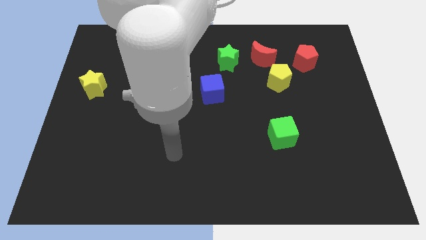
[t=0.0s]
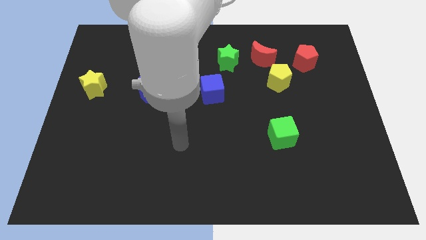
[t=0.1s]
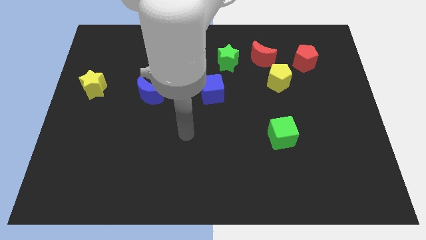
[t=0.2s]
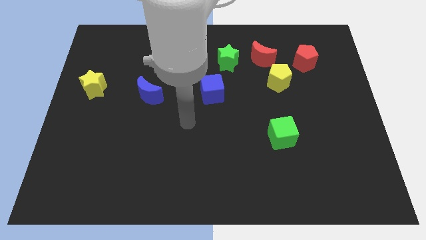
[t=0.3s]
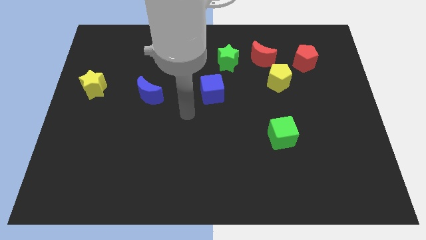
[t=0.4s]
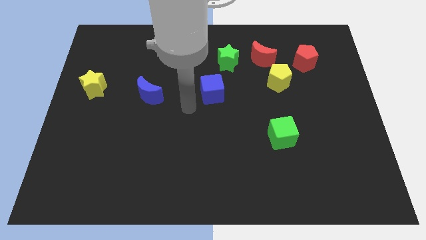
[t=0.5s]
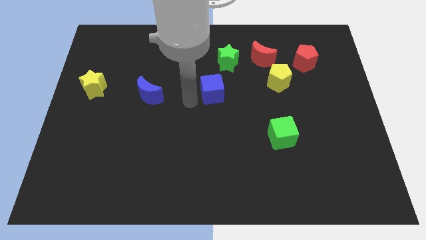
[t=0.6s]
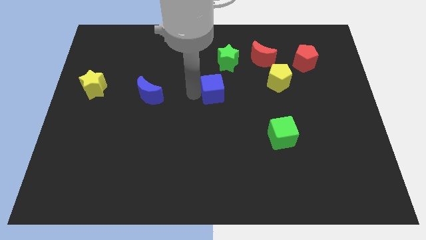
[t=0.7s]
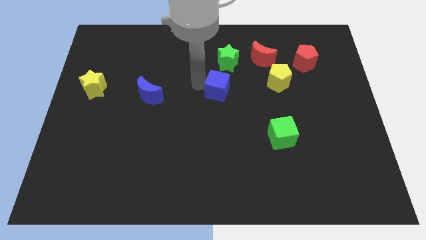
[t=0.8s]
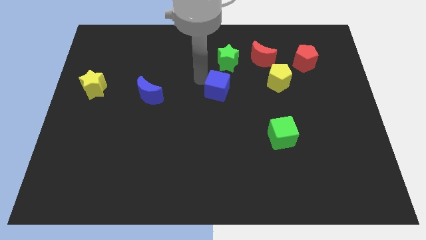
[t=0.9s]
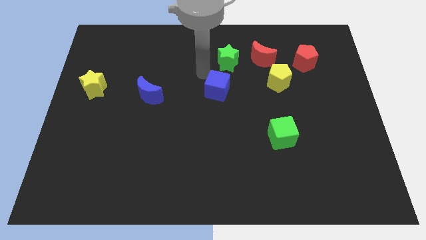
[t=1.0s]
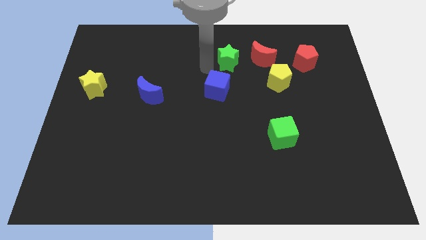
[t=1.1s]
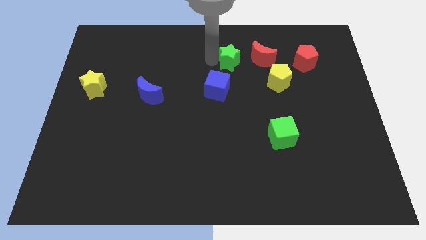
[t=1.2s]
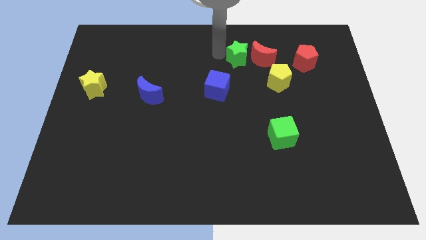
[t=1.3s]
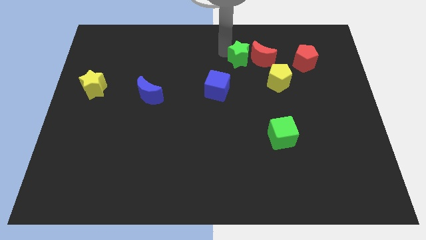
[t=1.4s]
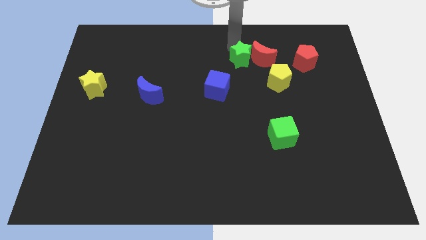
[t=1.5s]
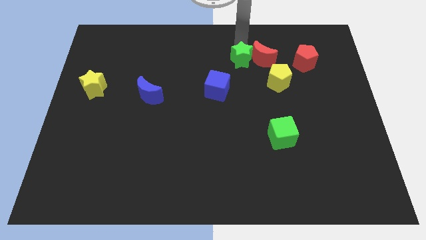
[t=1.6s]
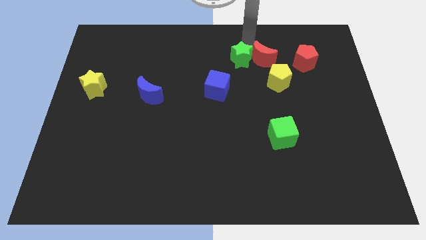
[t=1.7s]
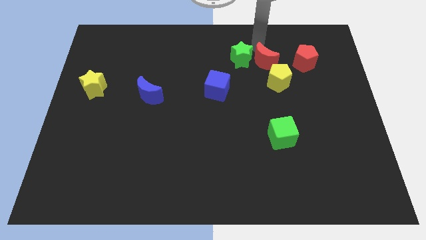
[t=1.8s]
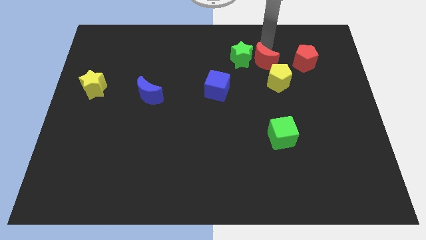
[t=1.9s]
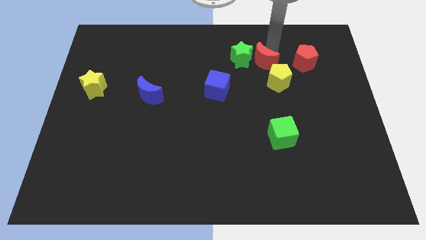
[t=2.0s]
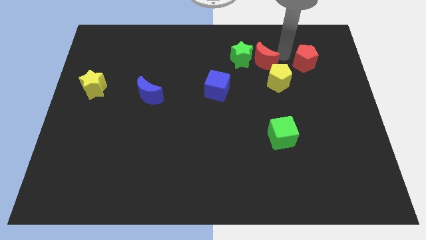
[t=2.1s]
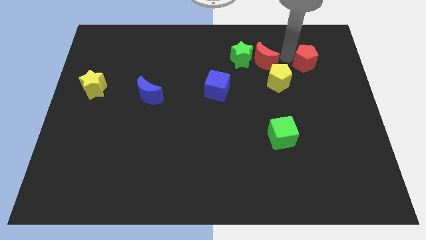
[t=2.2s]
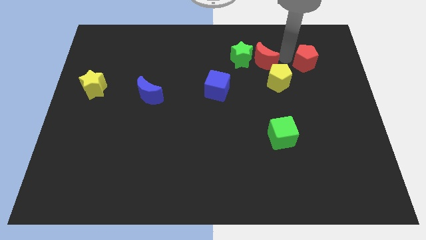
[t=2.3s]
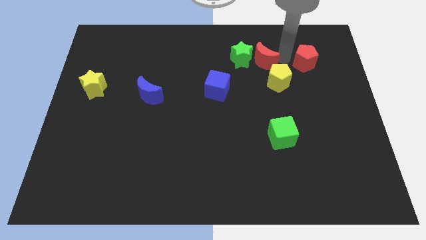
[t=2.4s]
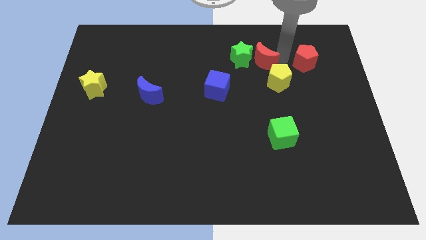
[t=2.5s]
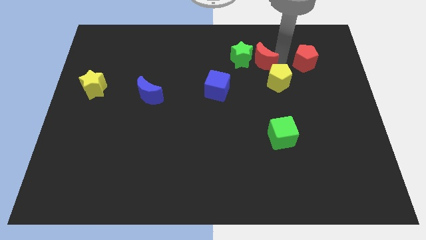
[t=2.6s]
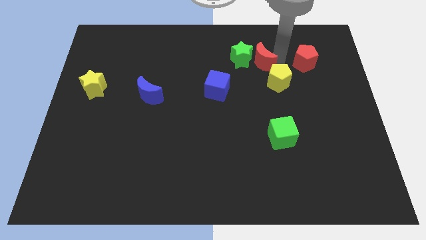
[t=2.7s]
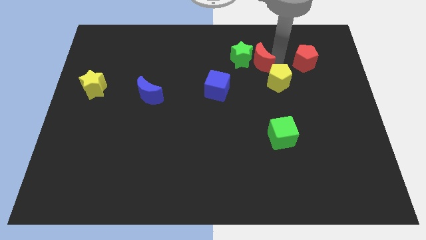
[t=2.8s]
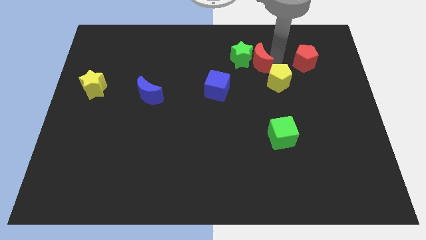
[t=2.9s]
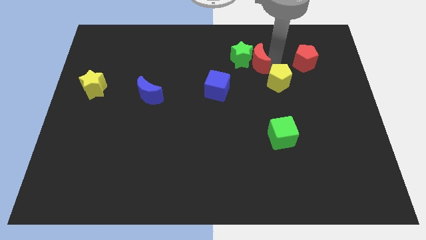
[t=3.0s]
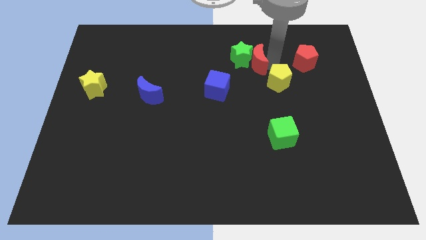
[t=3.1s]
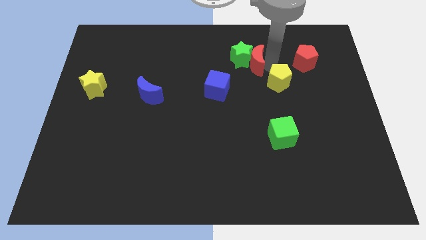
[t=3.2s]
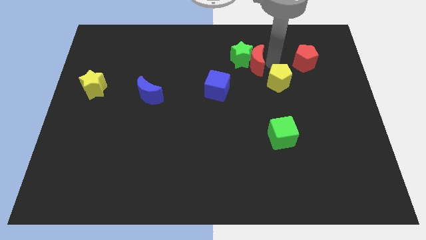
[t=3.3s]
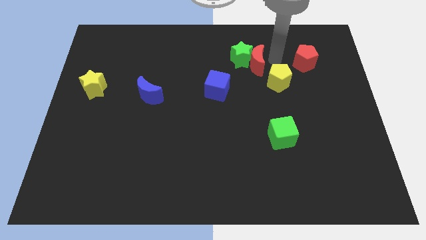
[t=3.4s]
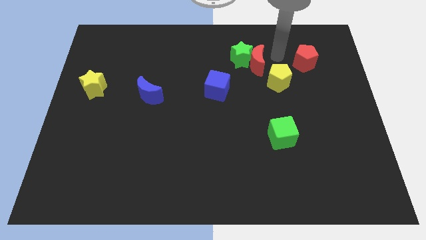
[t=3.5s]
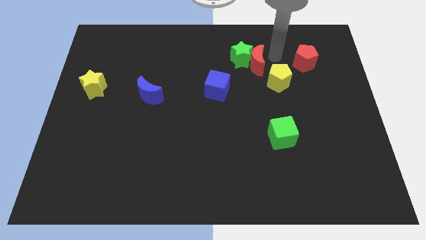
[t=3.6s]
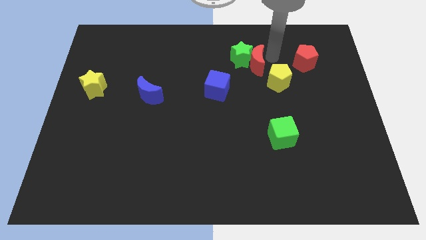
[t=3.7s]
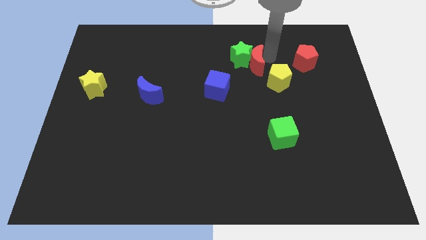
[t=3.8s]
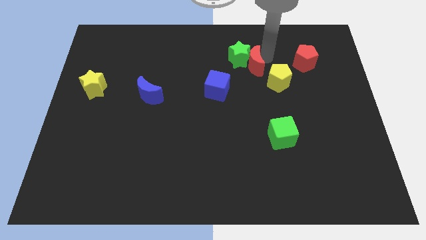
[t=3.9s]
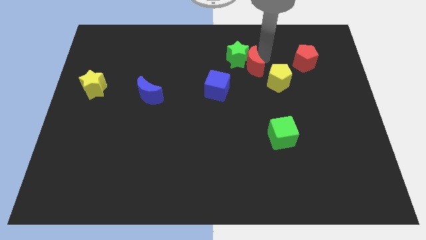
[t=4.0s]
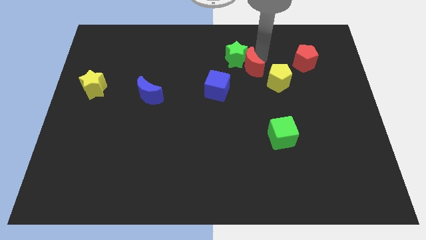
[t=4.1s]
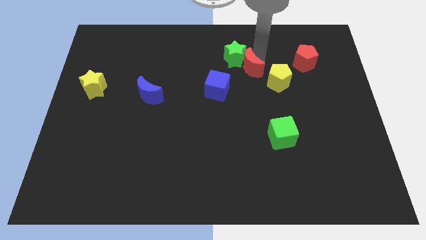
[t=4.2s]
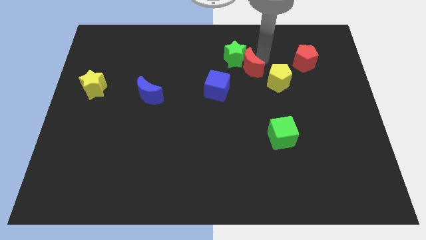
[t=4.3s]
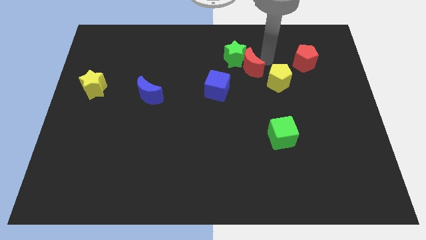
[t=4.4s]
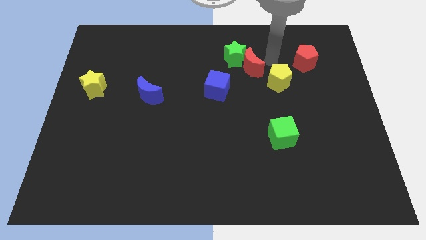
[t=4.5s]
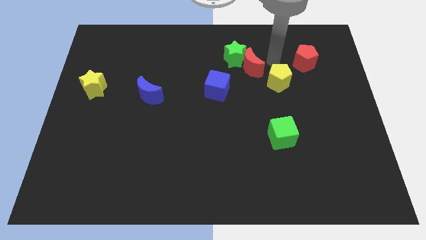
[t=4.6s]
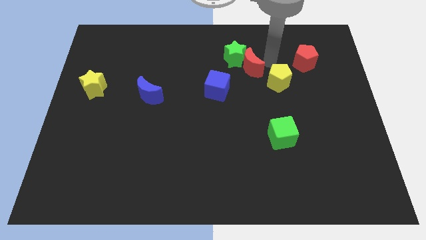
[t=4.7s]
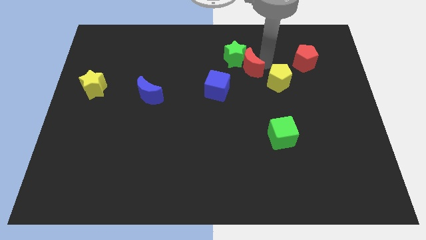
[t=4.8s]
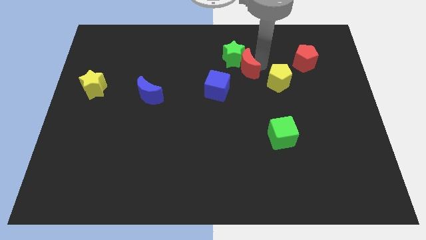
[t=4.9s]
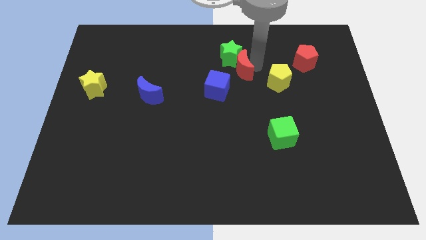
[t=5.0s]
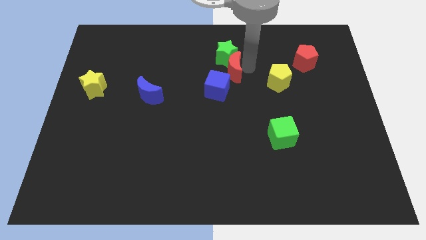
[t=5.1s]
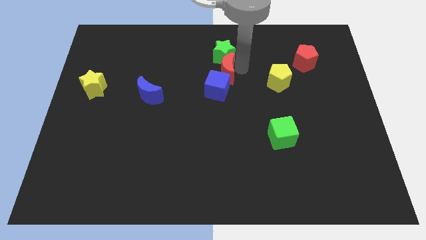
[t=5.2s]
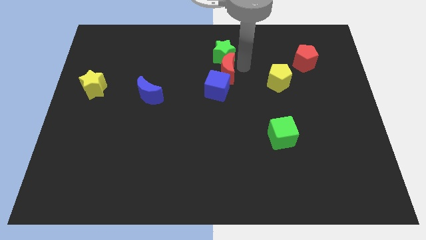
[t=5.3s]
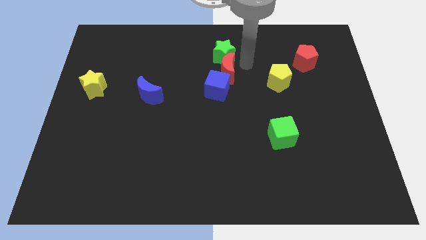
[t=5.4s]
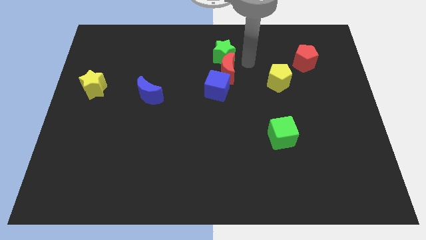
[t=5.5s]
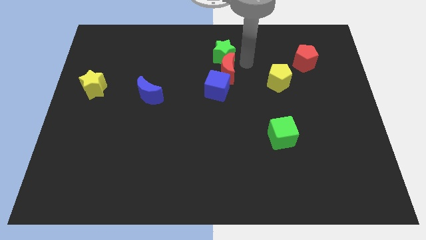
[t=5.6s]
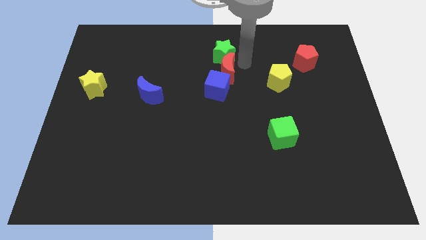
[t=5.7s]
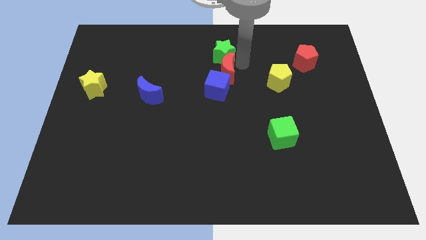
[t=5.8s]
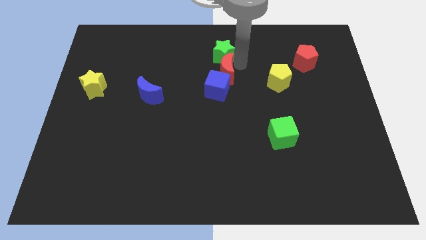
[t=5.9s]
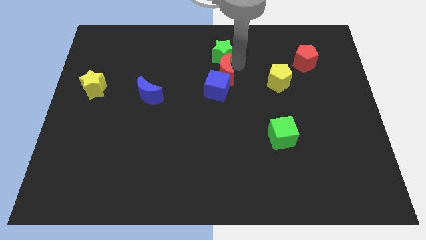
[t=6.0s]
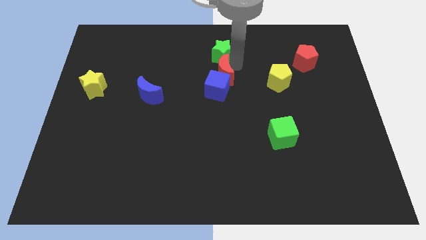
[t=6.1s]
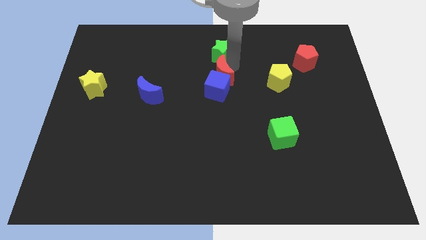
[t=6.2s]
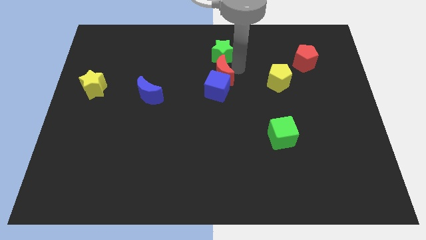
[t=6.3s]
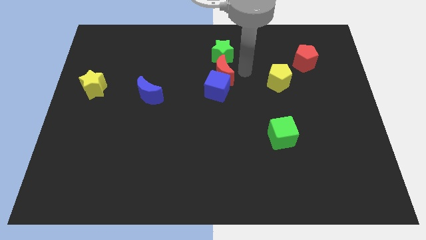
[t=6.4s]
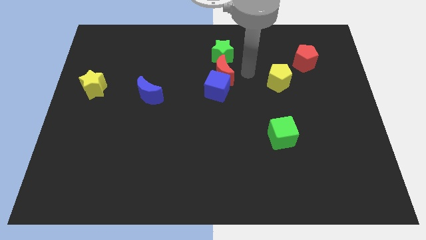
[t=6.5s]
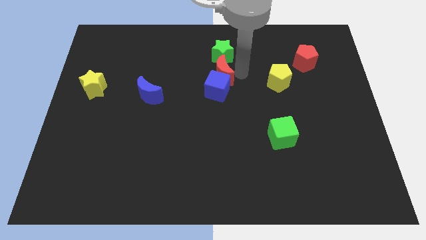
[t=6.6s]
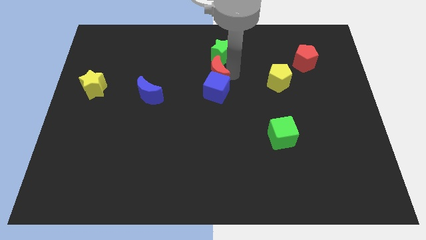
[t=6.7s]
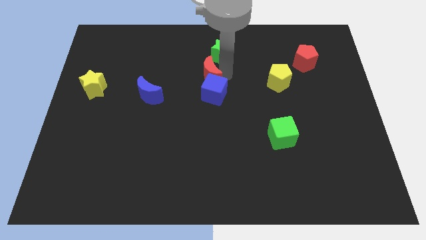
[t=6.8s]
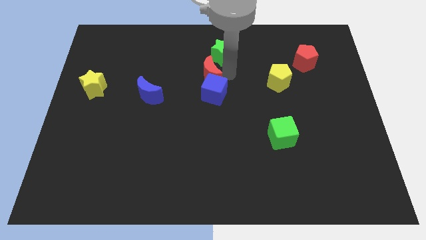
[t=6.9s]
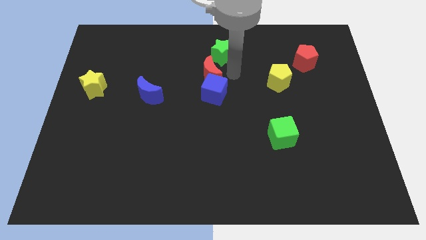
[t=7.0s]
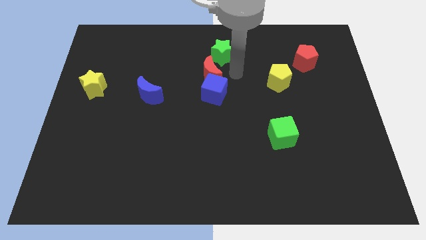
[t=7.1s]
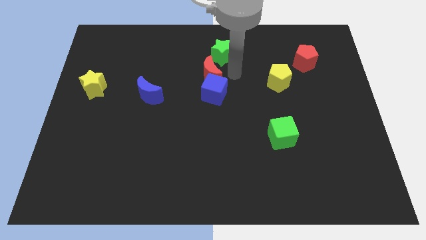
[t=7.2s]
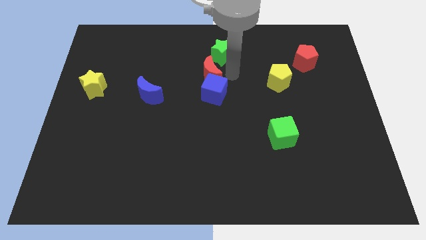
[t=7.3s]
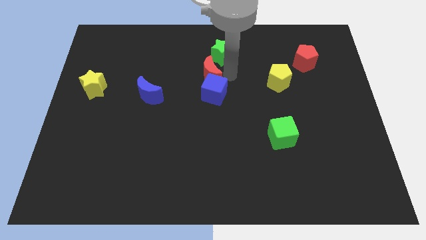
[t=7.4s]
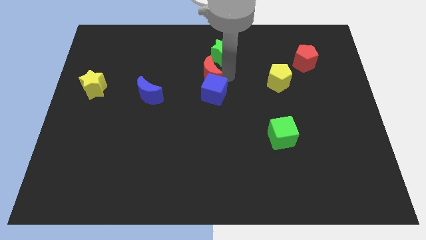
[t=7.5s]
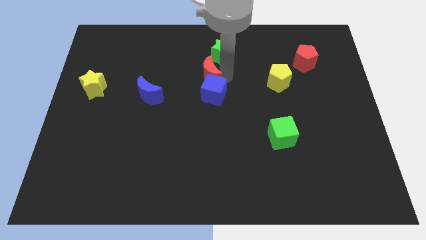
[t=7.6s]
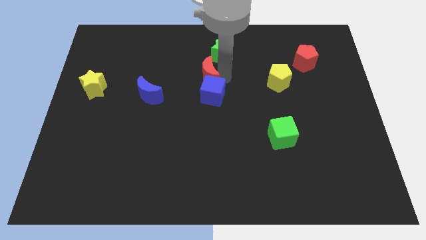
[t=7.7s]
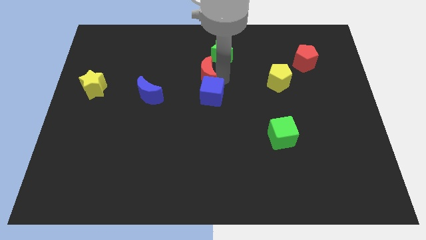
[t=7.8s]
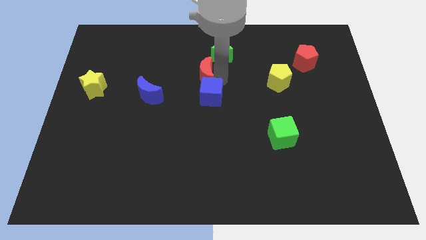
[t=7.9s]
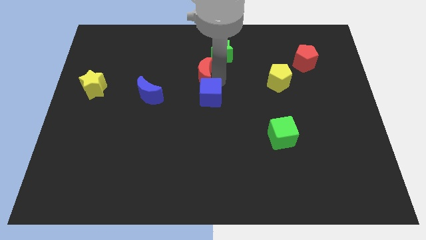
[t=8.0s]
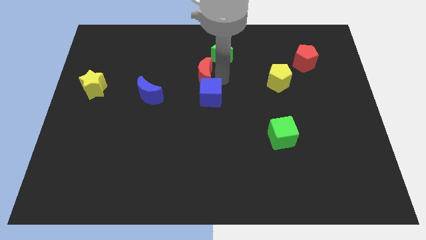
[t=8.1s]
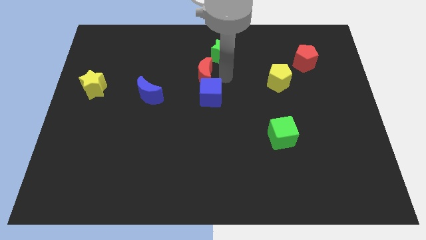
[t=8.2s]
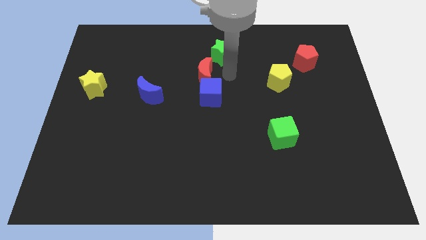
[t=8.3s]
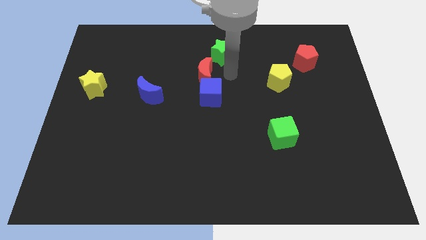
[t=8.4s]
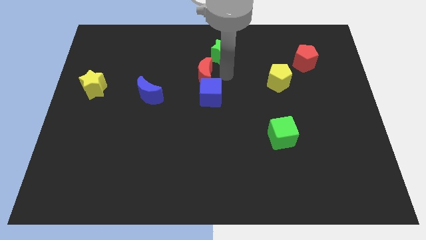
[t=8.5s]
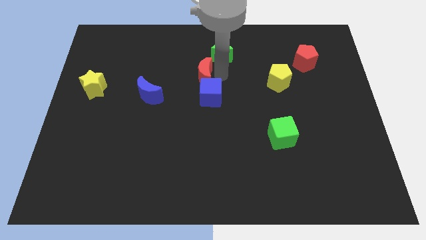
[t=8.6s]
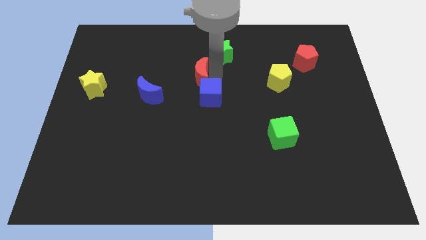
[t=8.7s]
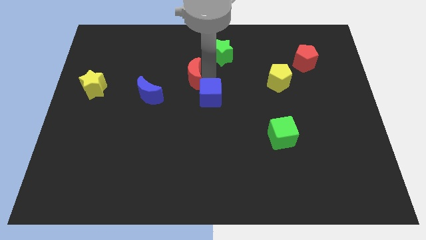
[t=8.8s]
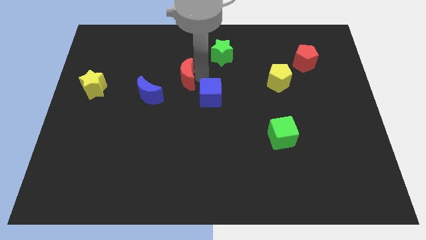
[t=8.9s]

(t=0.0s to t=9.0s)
move the red moon to the top right of the blue moon
